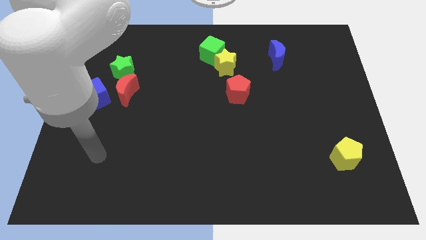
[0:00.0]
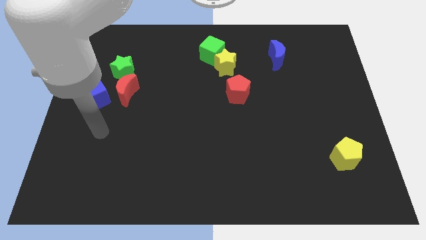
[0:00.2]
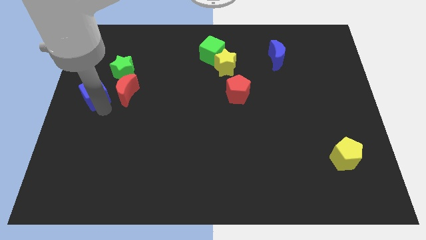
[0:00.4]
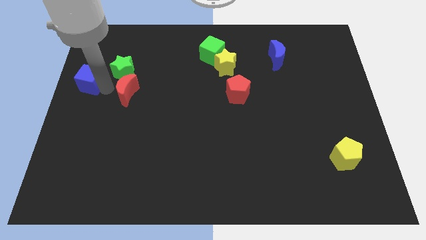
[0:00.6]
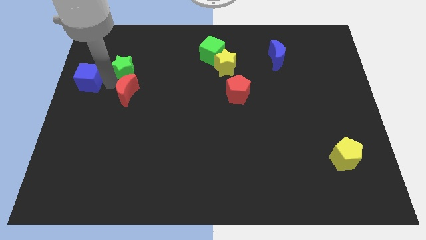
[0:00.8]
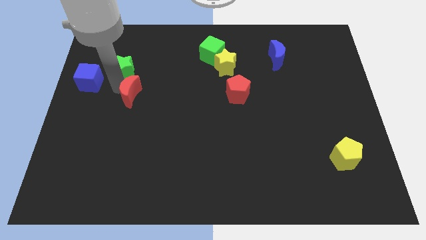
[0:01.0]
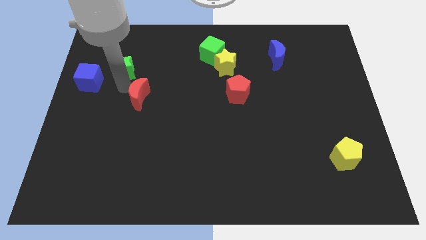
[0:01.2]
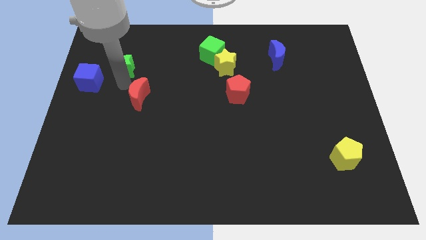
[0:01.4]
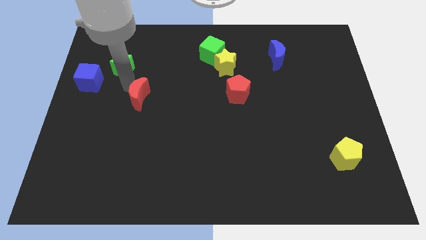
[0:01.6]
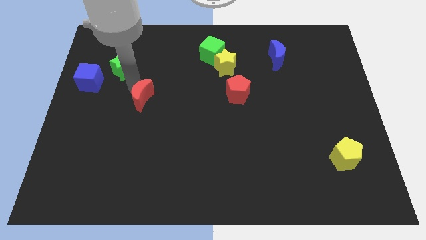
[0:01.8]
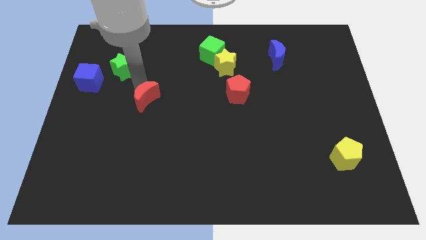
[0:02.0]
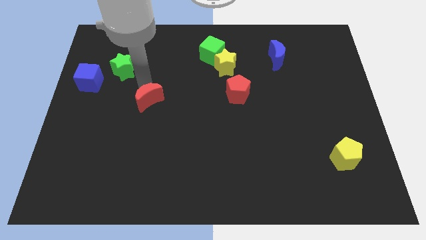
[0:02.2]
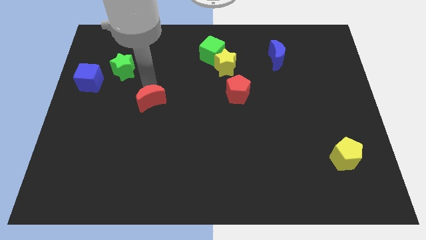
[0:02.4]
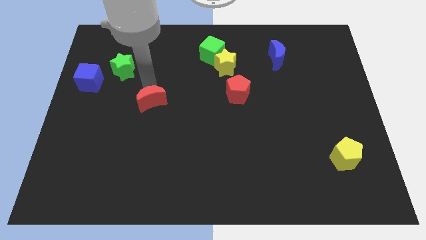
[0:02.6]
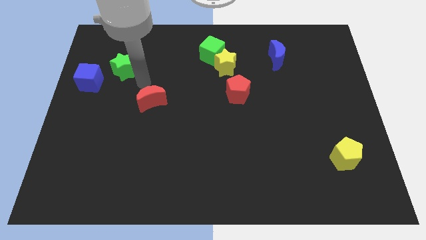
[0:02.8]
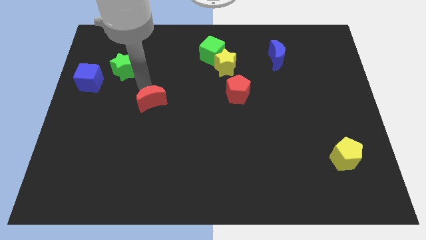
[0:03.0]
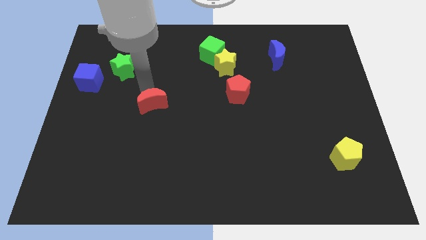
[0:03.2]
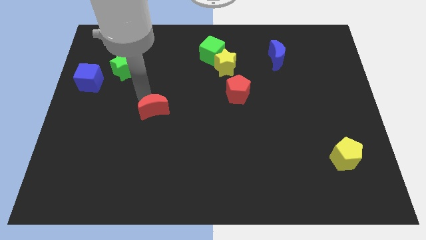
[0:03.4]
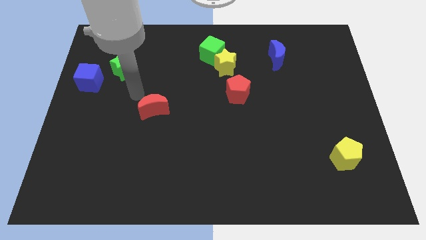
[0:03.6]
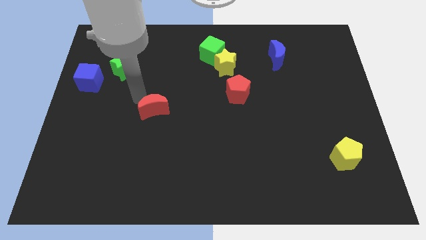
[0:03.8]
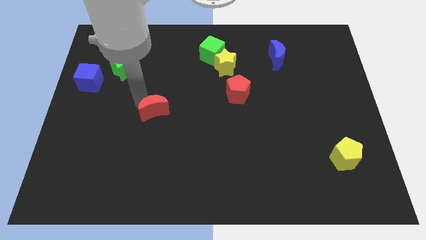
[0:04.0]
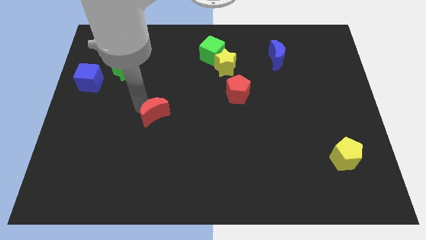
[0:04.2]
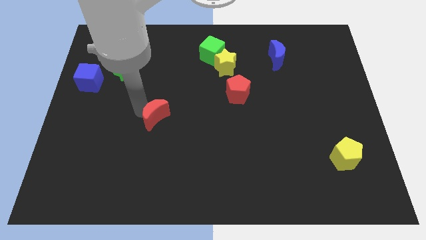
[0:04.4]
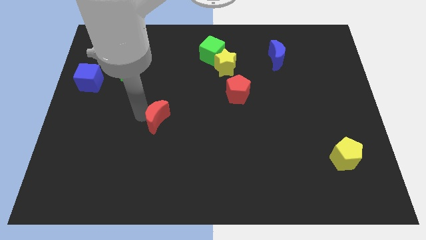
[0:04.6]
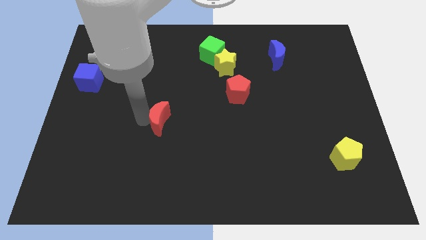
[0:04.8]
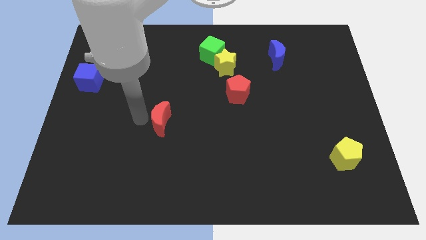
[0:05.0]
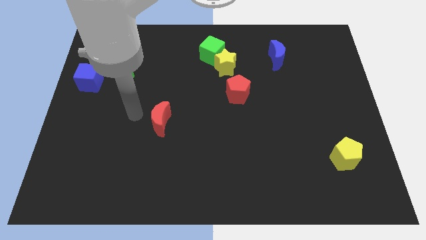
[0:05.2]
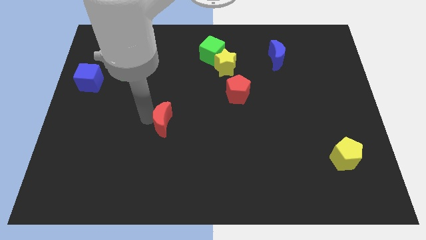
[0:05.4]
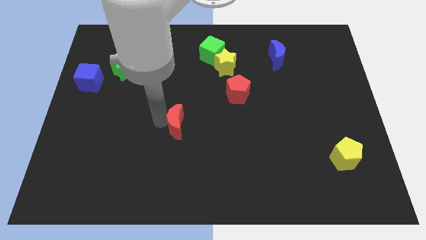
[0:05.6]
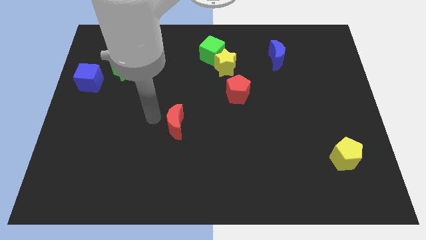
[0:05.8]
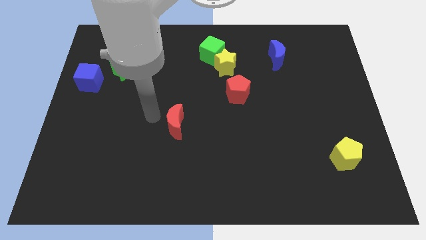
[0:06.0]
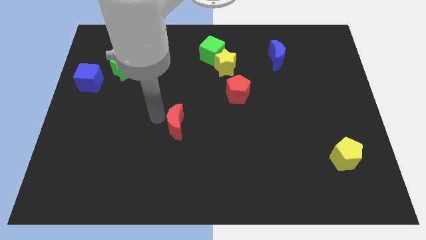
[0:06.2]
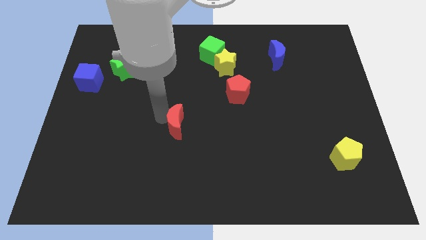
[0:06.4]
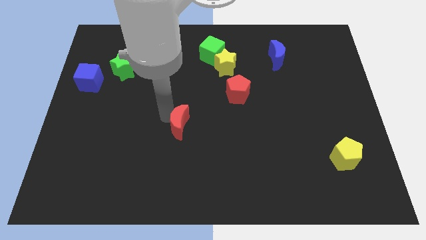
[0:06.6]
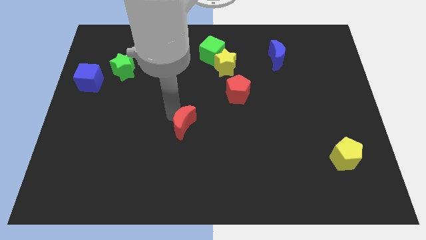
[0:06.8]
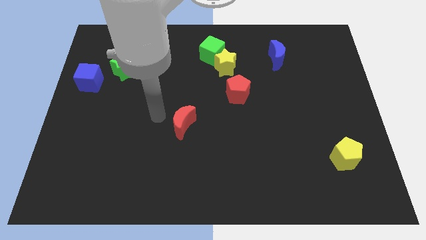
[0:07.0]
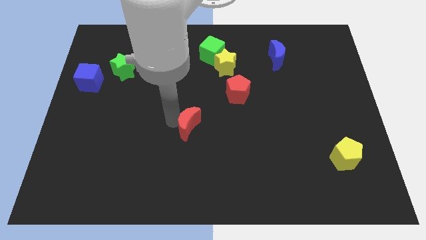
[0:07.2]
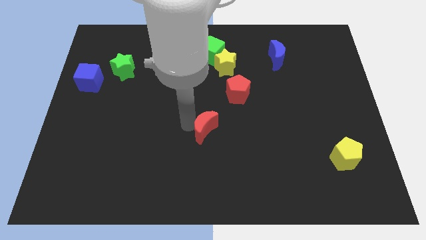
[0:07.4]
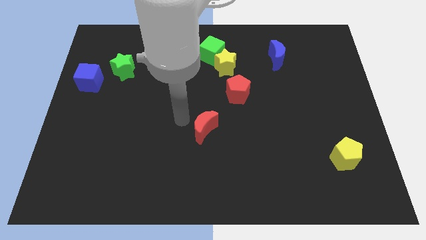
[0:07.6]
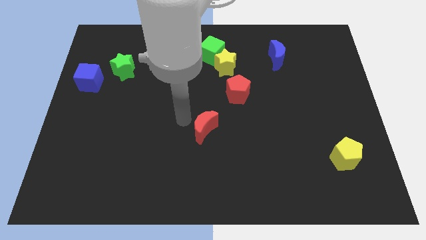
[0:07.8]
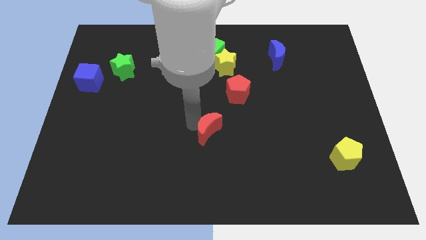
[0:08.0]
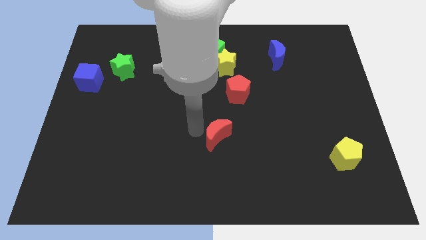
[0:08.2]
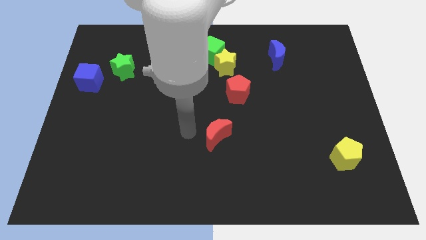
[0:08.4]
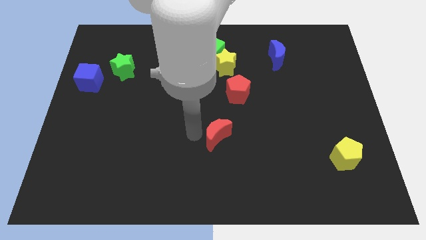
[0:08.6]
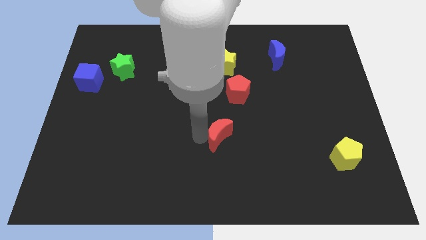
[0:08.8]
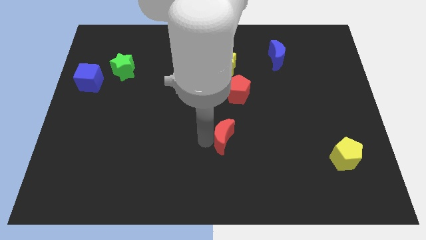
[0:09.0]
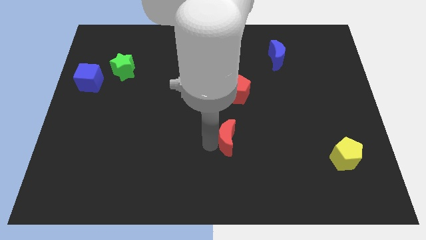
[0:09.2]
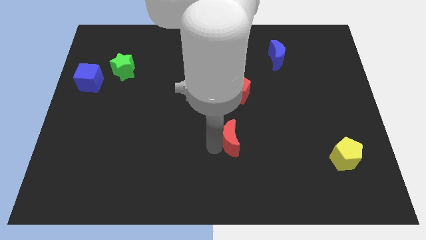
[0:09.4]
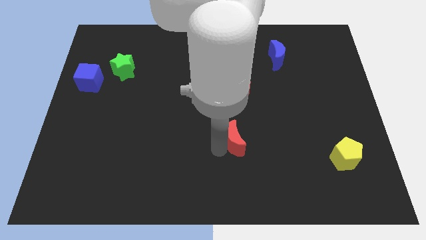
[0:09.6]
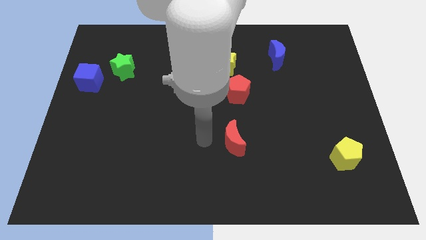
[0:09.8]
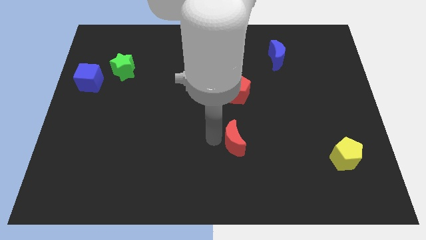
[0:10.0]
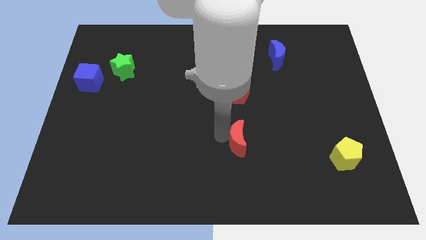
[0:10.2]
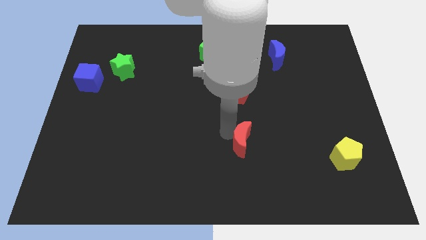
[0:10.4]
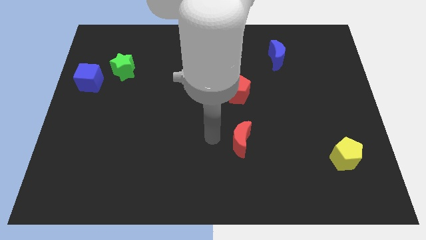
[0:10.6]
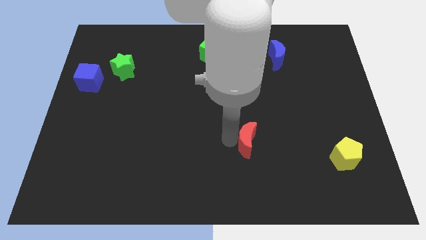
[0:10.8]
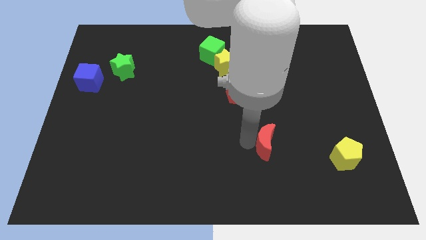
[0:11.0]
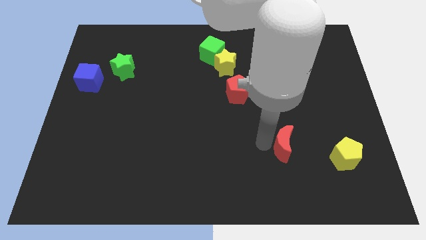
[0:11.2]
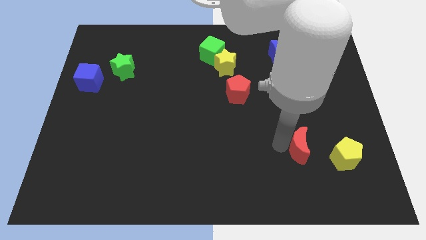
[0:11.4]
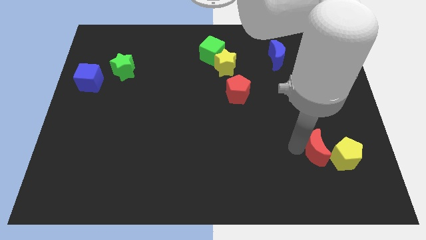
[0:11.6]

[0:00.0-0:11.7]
slide the red moon towards the yellow pentagon

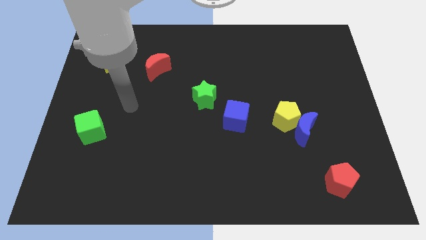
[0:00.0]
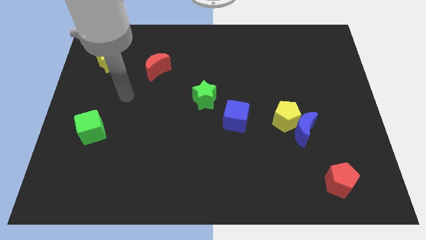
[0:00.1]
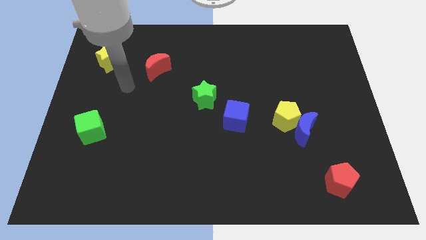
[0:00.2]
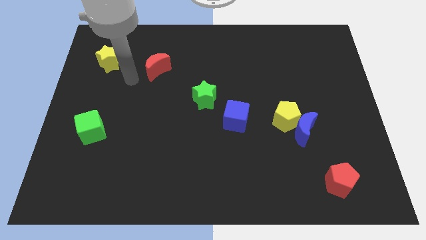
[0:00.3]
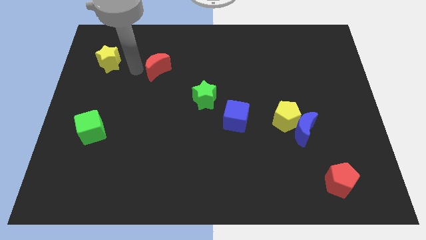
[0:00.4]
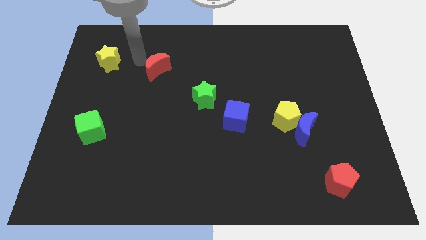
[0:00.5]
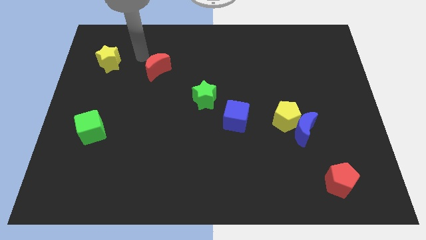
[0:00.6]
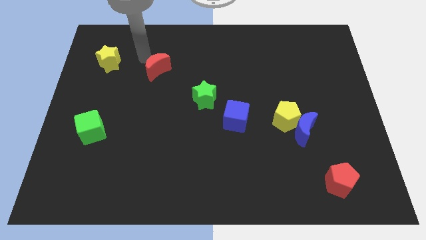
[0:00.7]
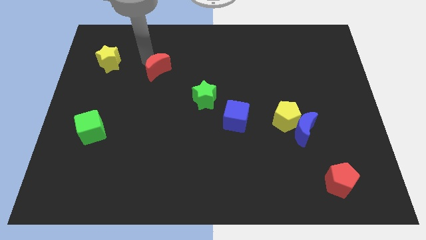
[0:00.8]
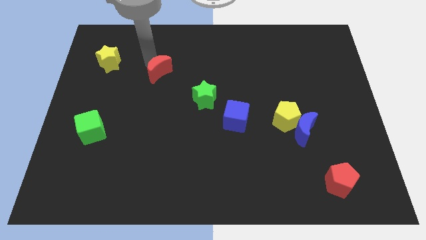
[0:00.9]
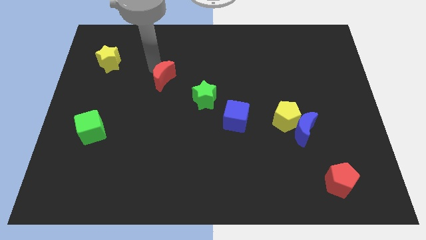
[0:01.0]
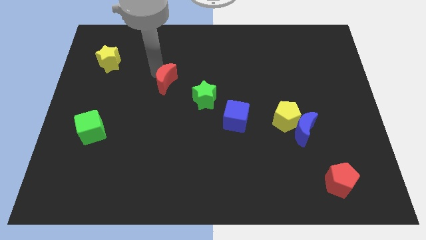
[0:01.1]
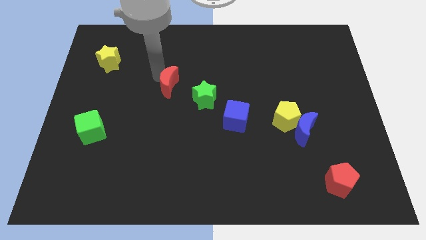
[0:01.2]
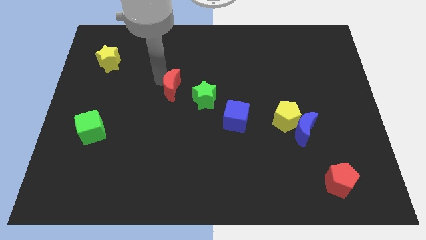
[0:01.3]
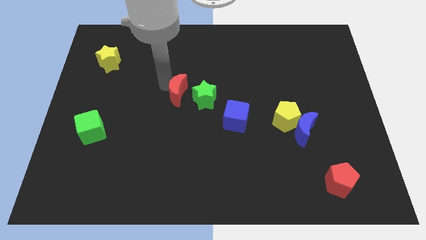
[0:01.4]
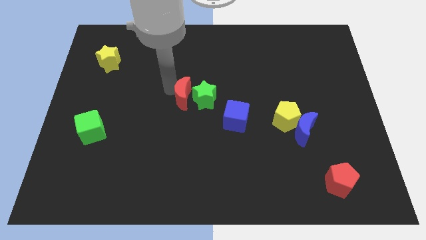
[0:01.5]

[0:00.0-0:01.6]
push the red moon close to the green star
